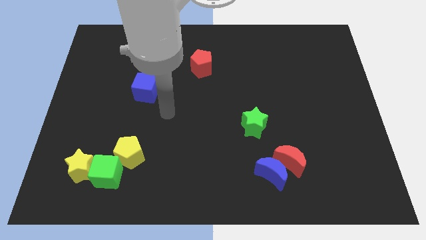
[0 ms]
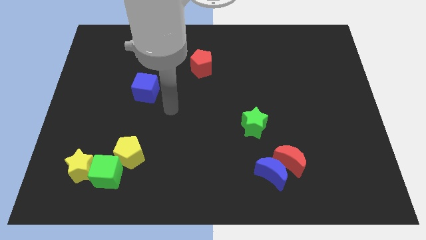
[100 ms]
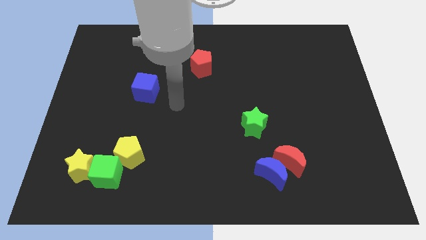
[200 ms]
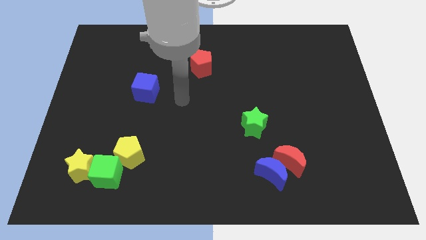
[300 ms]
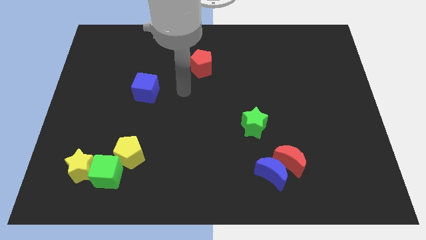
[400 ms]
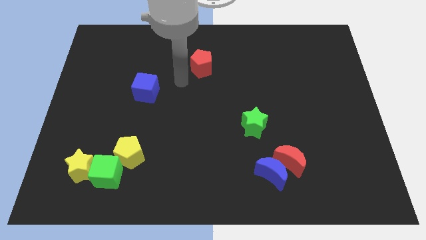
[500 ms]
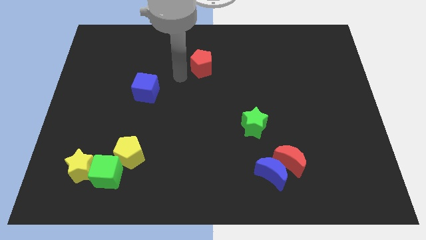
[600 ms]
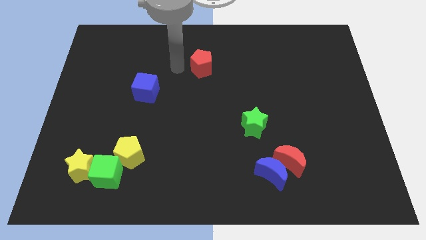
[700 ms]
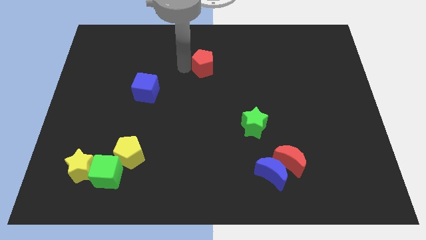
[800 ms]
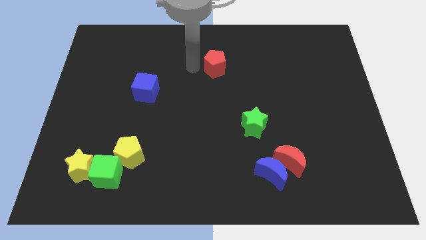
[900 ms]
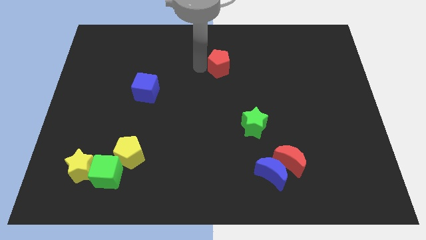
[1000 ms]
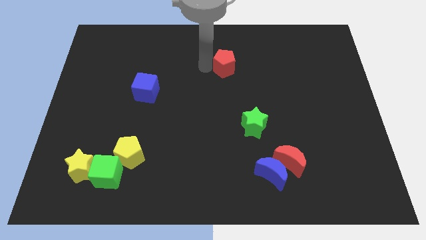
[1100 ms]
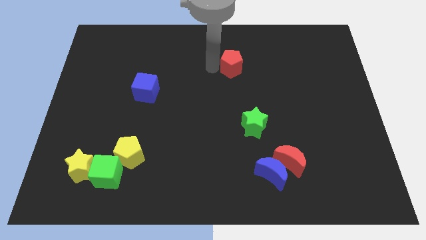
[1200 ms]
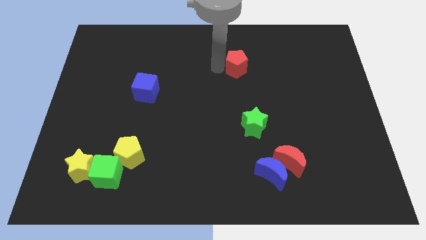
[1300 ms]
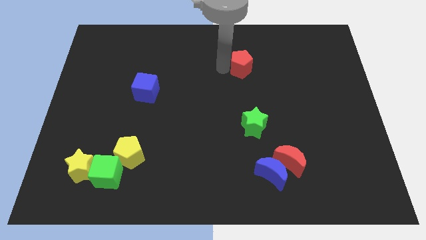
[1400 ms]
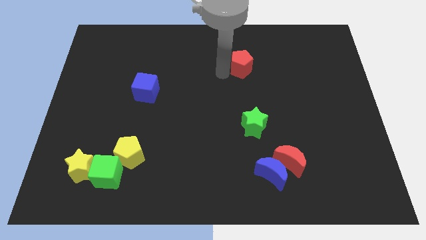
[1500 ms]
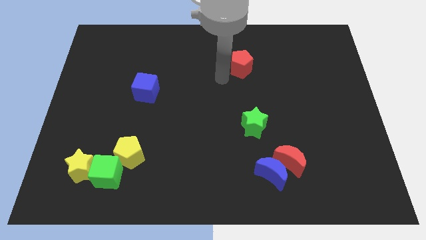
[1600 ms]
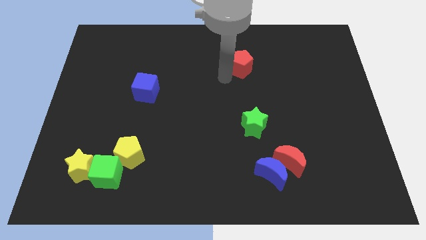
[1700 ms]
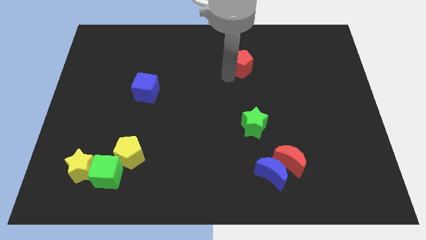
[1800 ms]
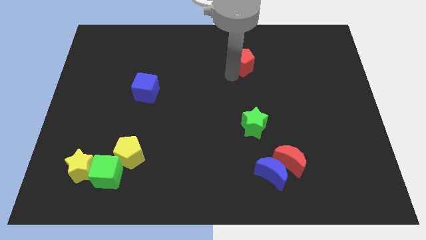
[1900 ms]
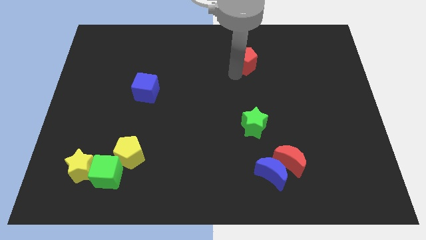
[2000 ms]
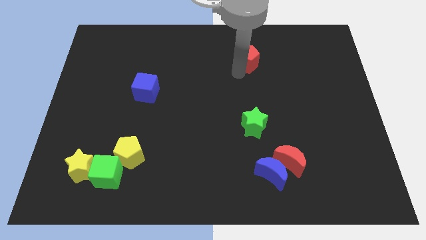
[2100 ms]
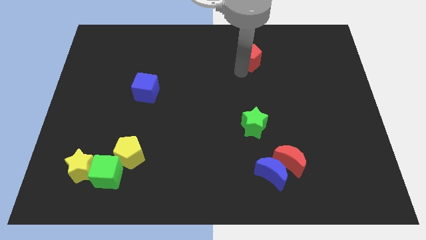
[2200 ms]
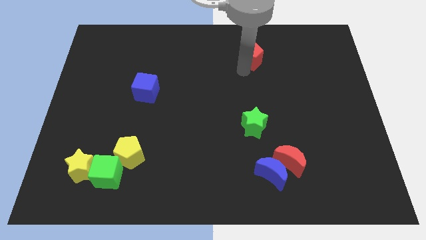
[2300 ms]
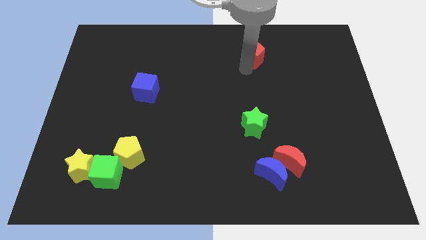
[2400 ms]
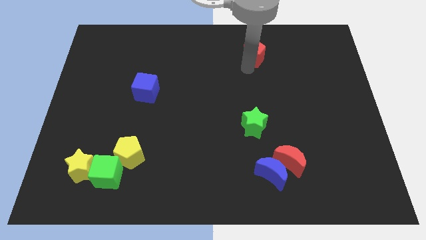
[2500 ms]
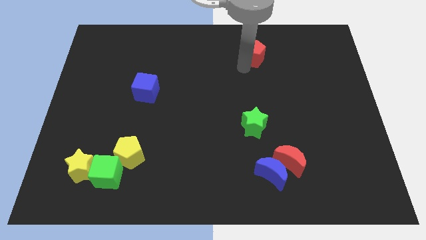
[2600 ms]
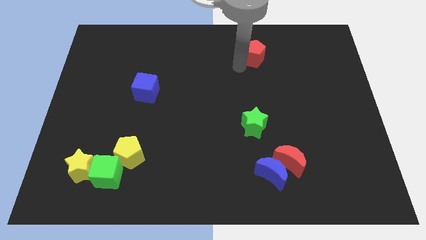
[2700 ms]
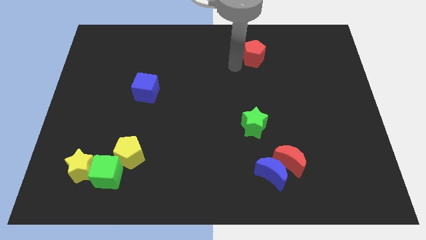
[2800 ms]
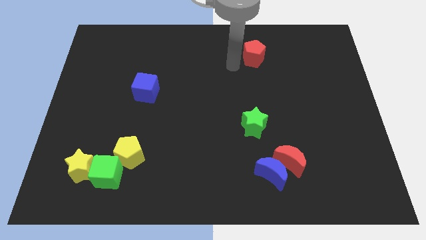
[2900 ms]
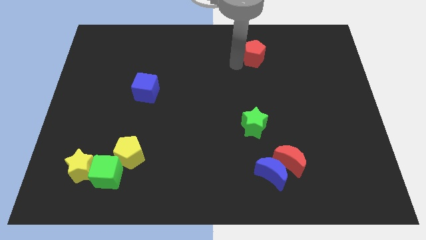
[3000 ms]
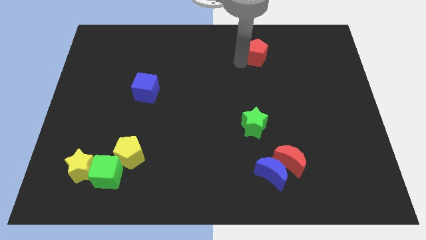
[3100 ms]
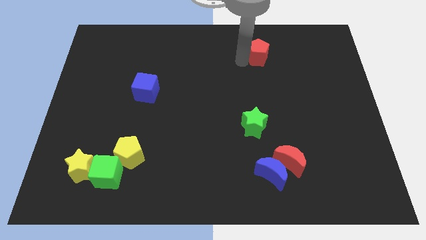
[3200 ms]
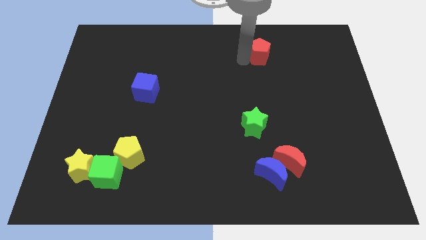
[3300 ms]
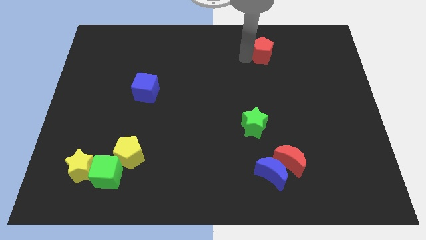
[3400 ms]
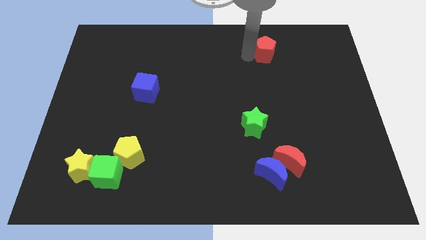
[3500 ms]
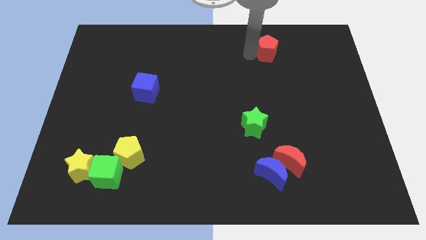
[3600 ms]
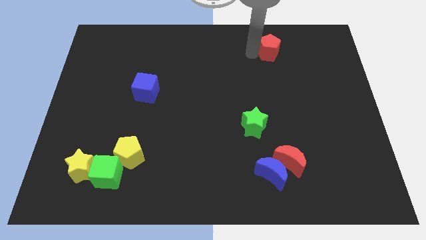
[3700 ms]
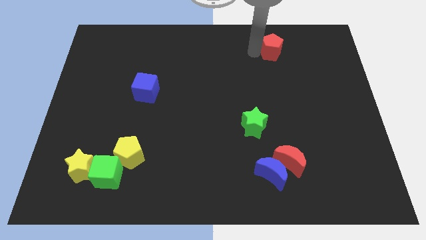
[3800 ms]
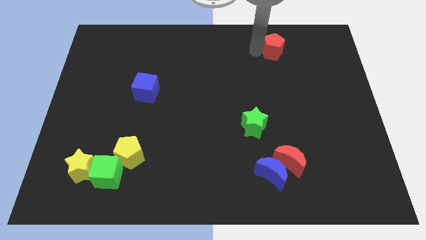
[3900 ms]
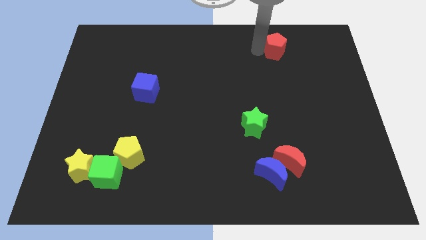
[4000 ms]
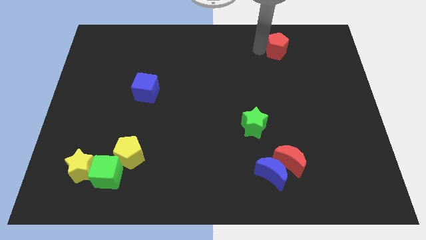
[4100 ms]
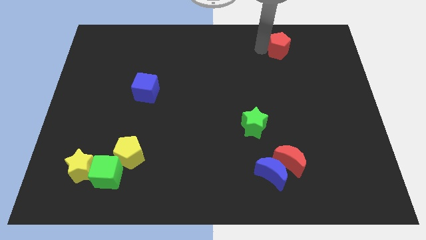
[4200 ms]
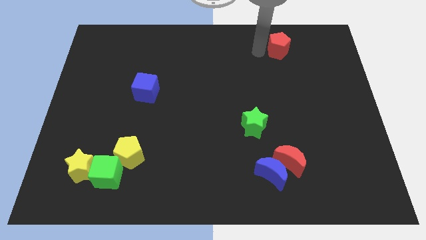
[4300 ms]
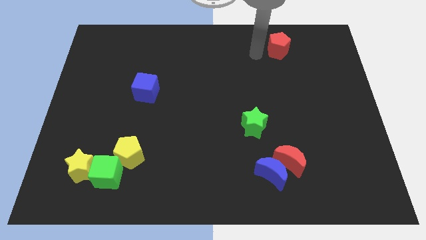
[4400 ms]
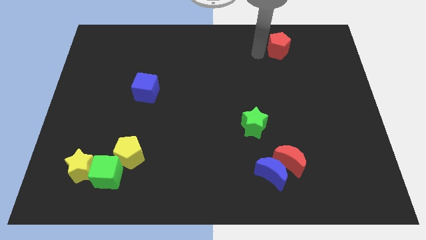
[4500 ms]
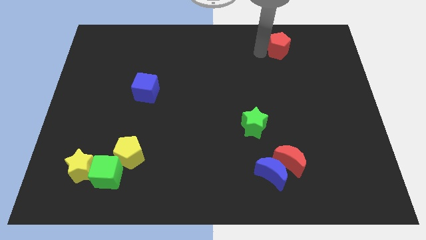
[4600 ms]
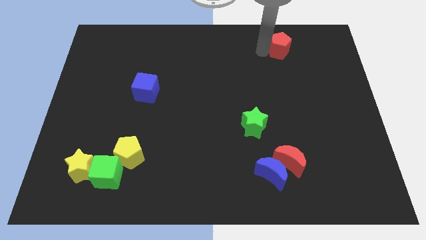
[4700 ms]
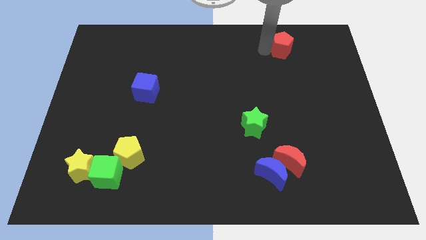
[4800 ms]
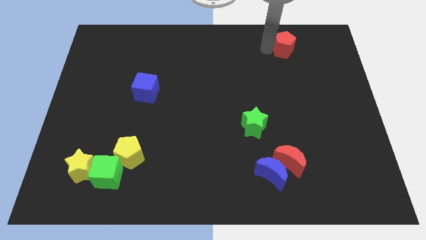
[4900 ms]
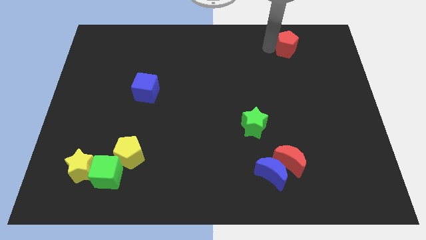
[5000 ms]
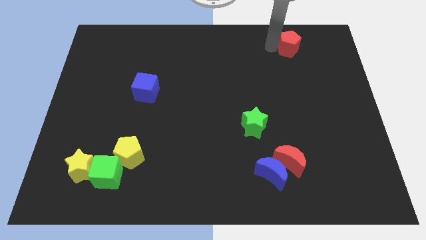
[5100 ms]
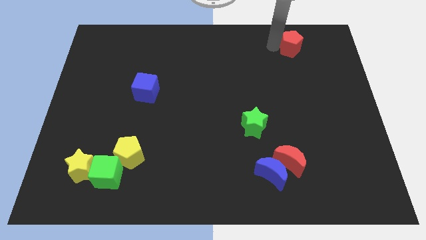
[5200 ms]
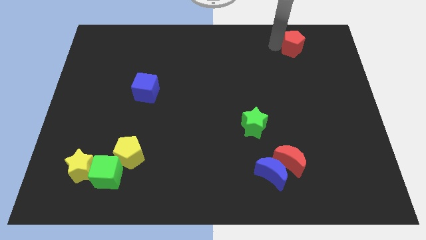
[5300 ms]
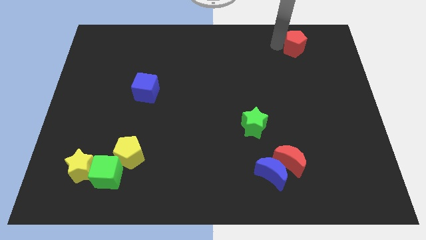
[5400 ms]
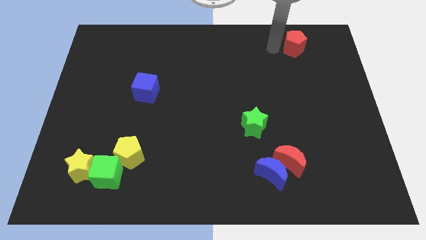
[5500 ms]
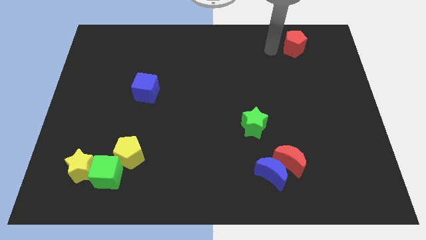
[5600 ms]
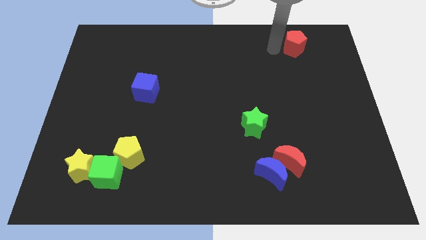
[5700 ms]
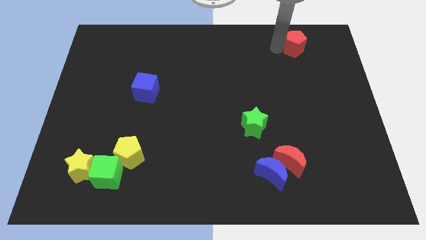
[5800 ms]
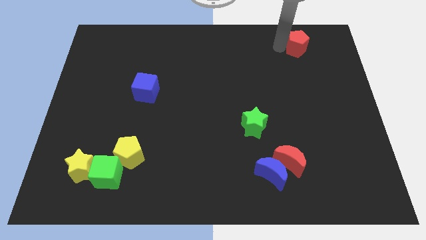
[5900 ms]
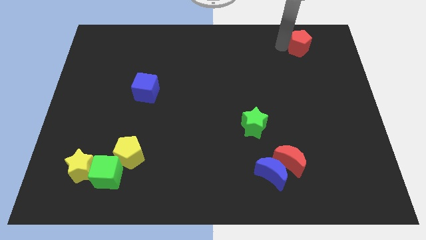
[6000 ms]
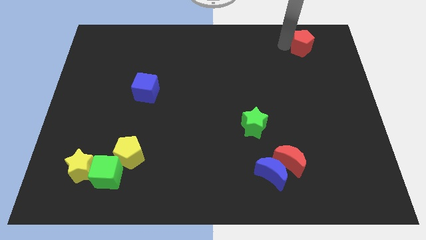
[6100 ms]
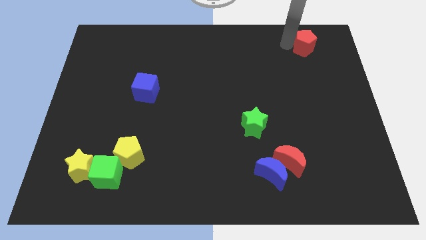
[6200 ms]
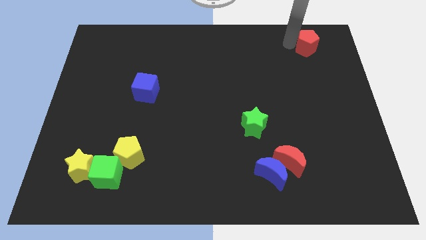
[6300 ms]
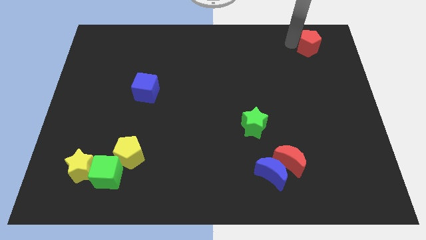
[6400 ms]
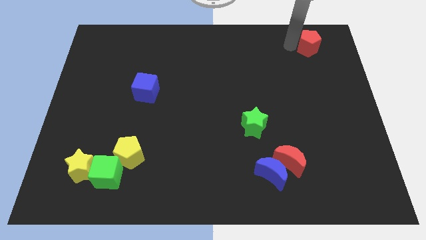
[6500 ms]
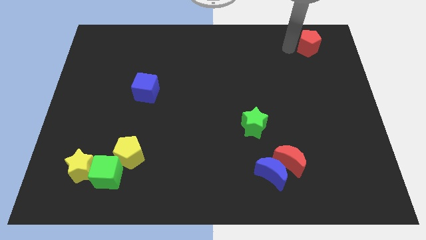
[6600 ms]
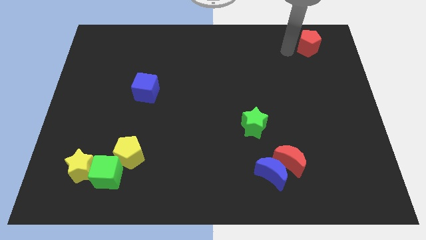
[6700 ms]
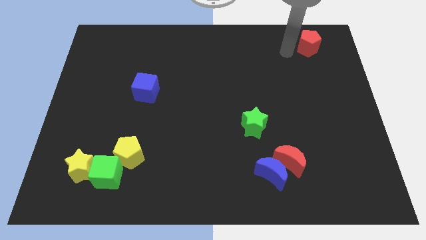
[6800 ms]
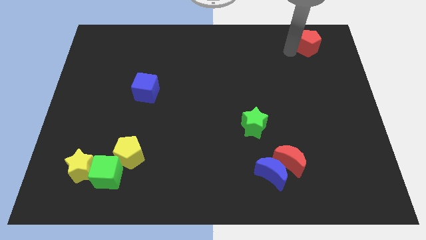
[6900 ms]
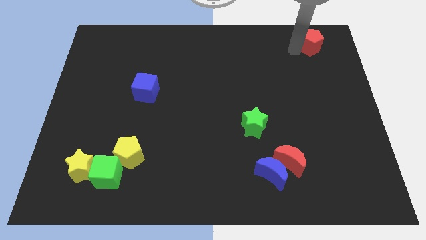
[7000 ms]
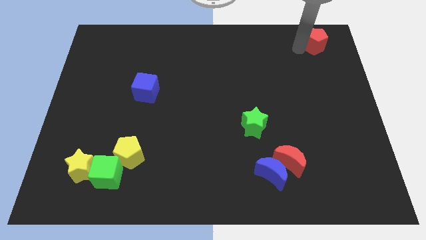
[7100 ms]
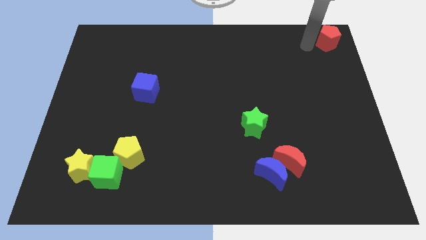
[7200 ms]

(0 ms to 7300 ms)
move the red pentagon to the top right
